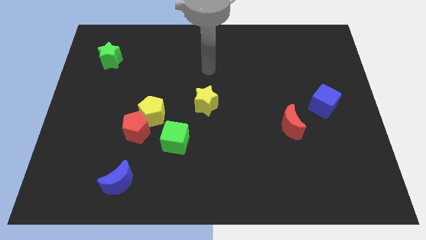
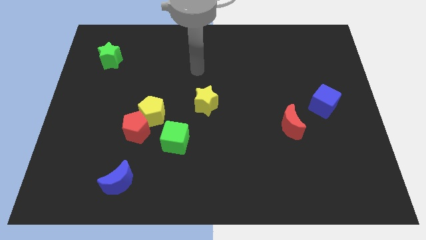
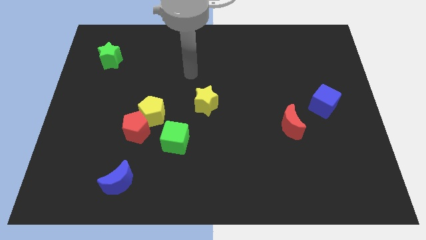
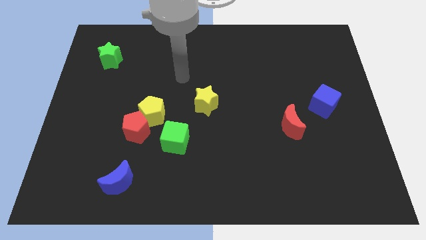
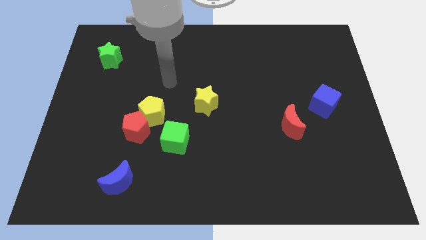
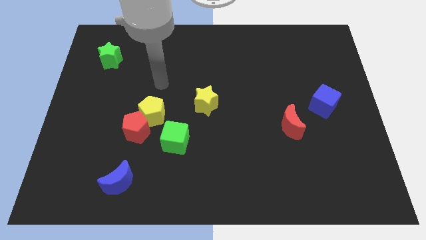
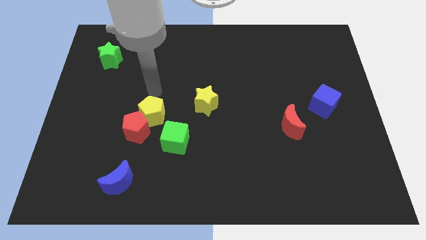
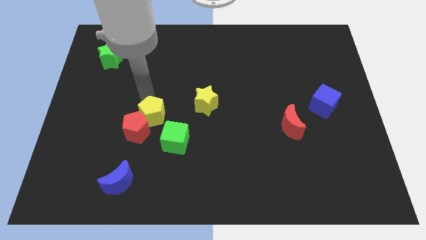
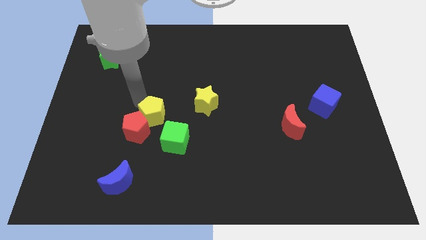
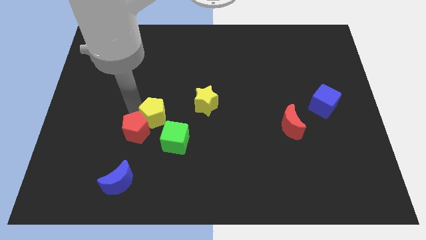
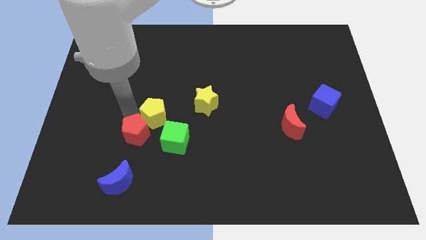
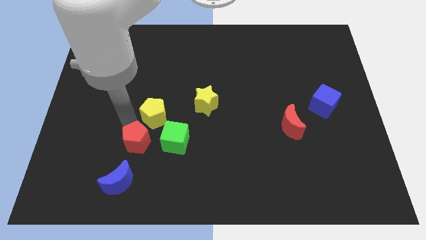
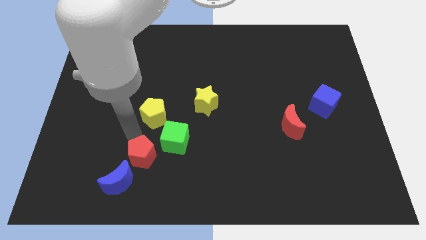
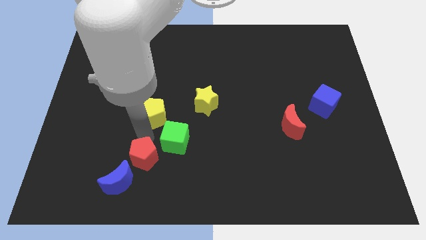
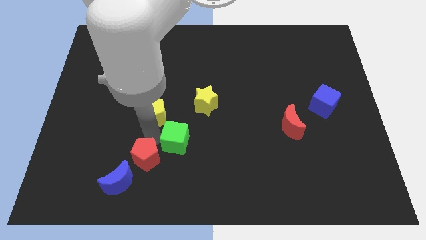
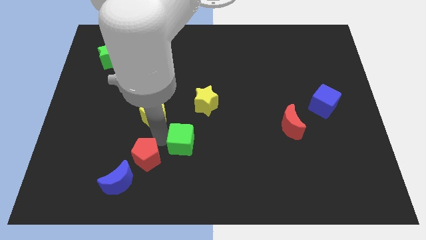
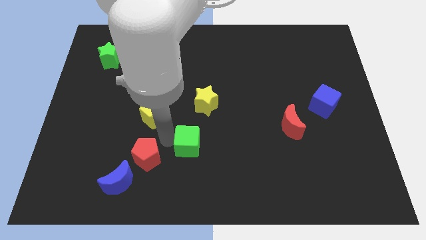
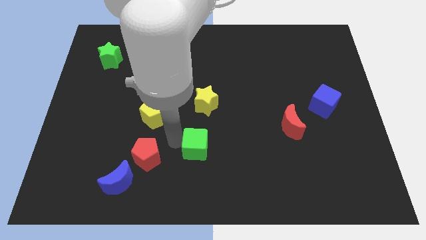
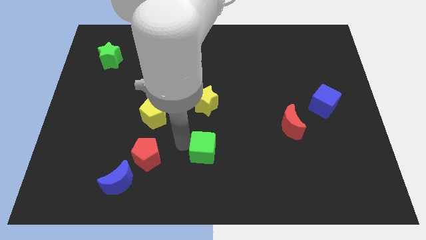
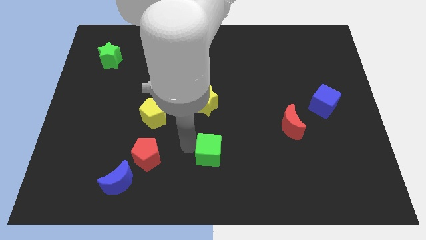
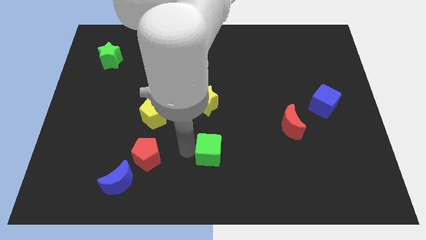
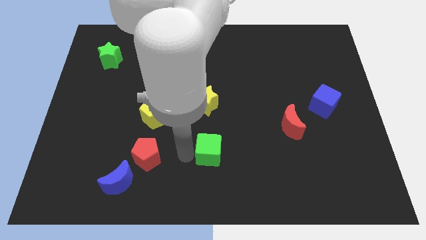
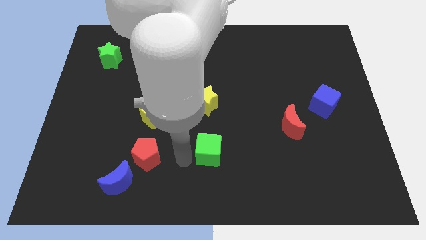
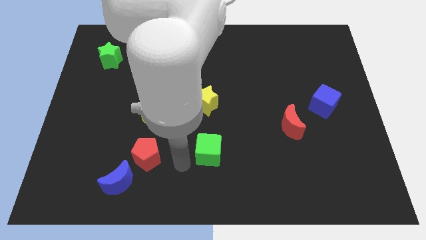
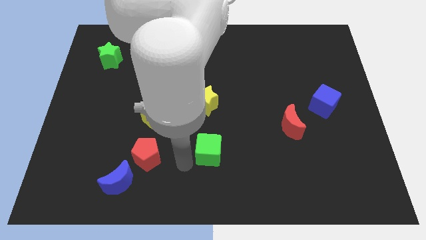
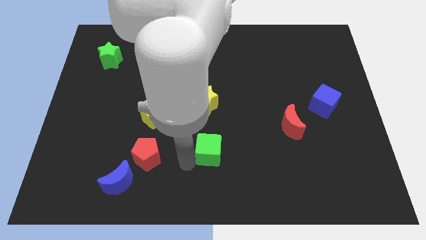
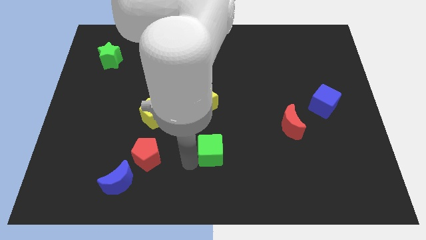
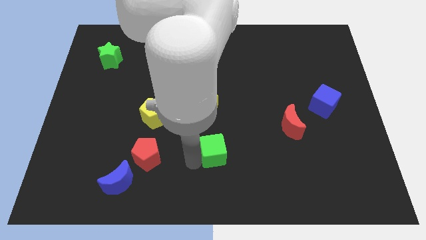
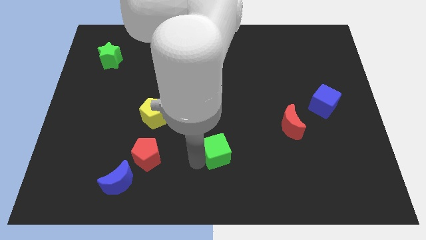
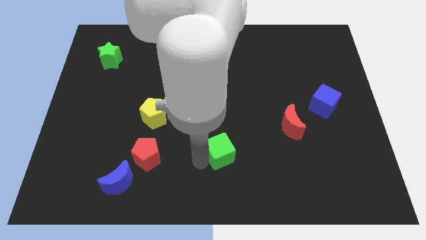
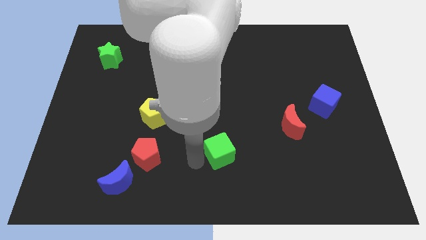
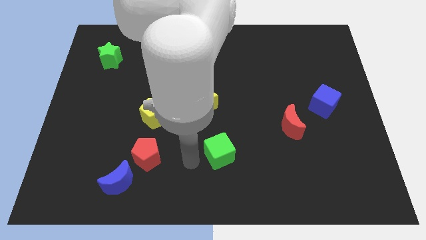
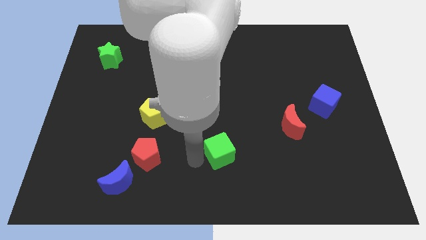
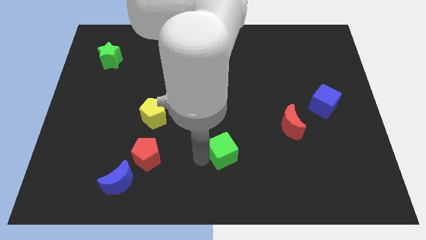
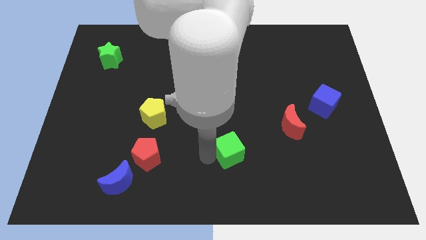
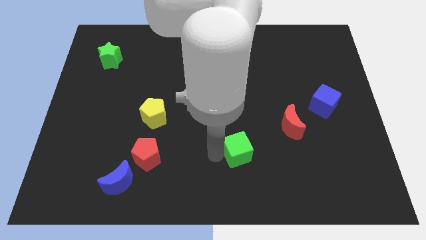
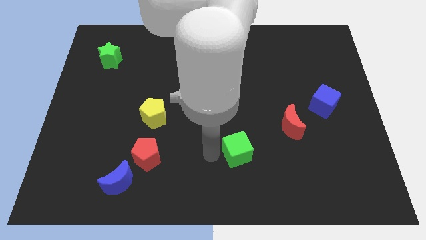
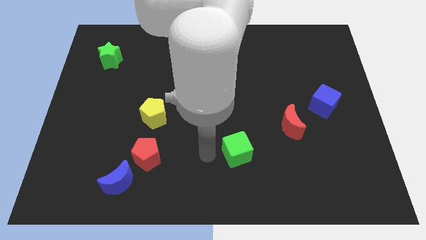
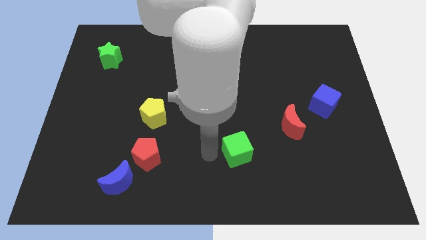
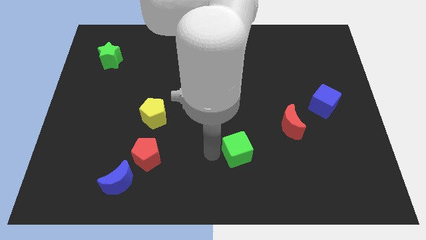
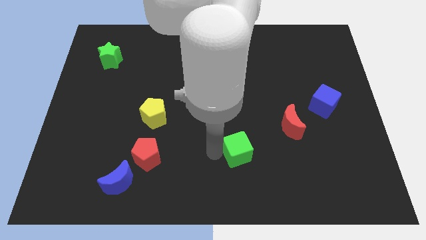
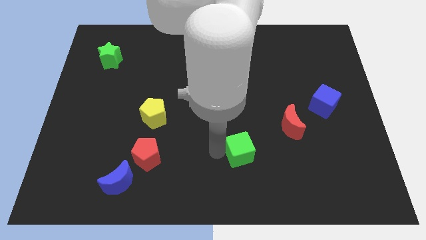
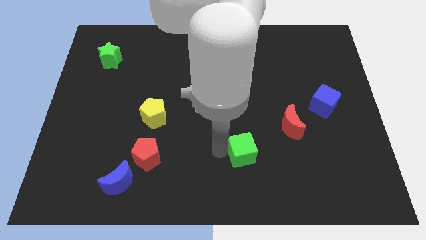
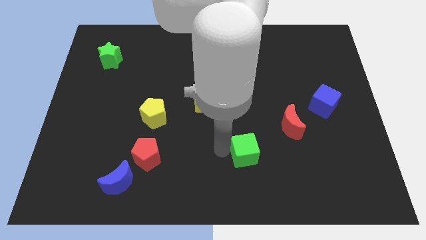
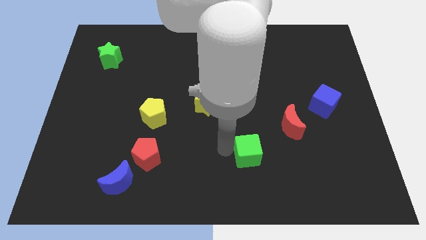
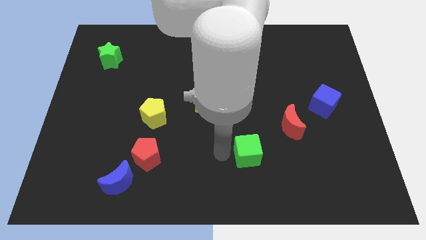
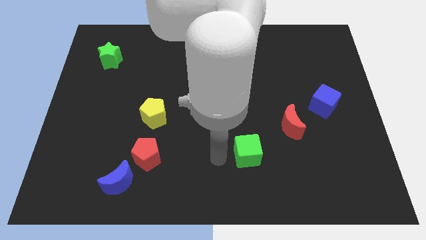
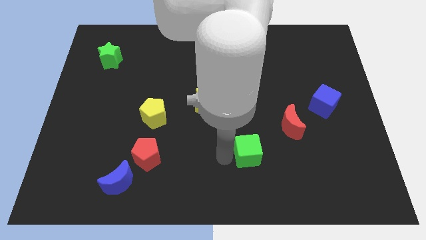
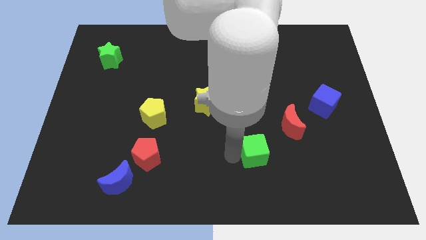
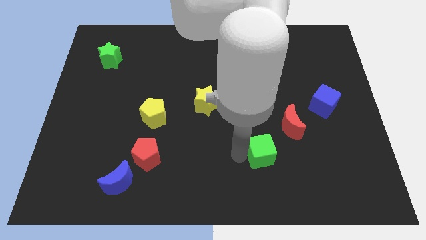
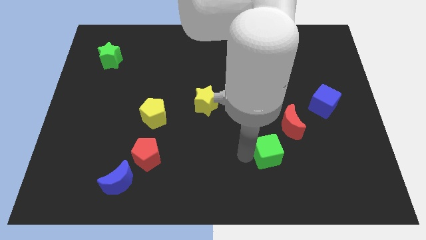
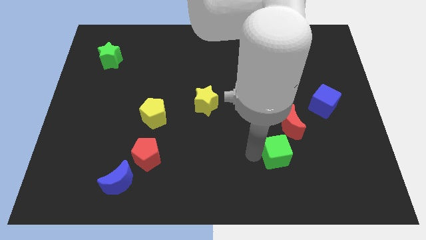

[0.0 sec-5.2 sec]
move the green cube right

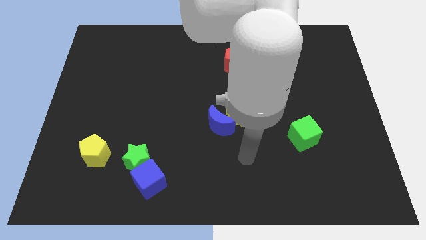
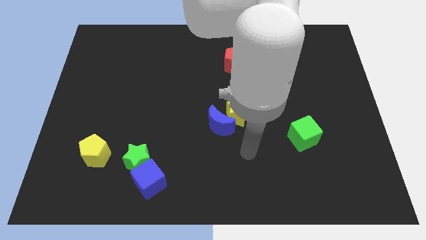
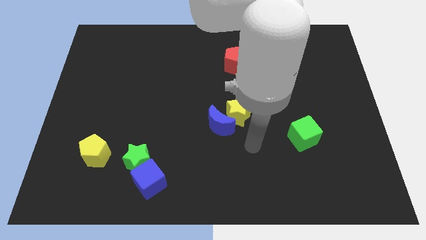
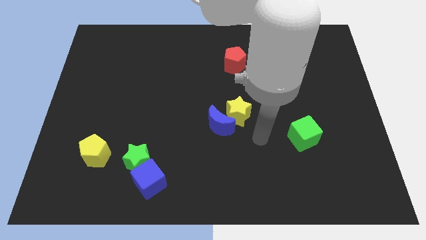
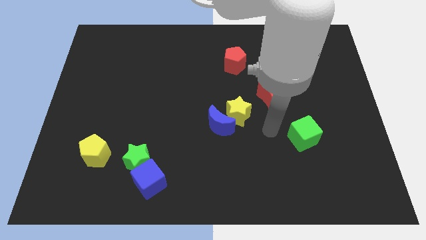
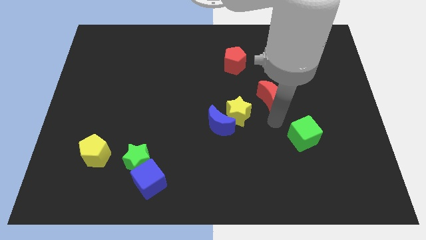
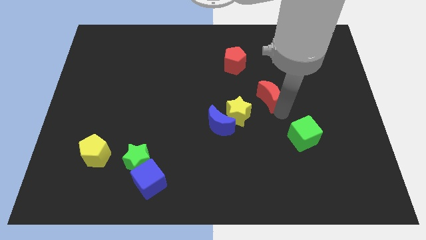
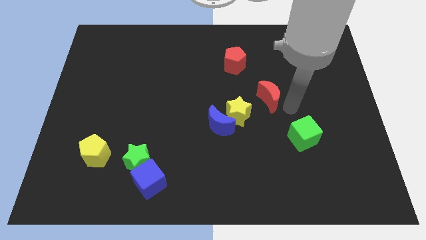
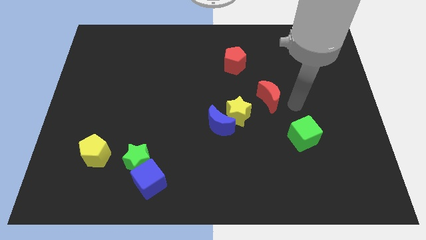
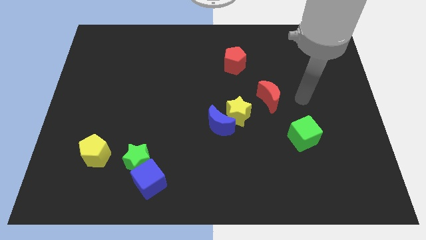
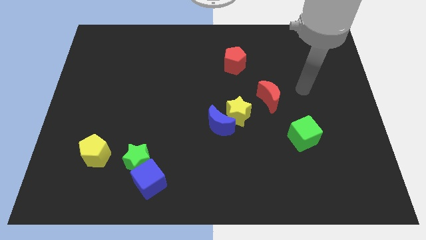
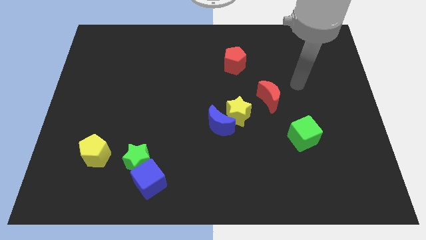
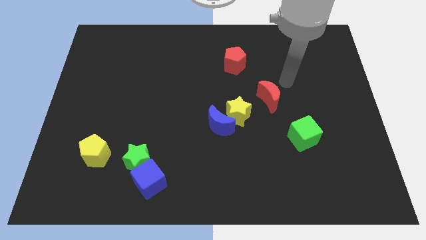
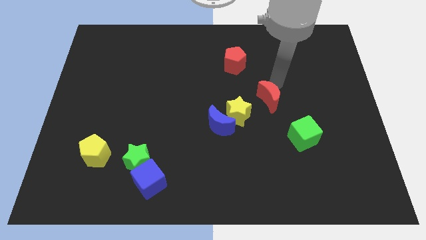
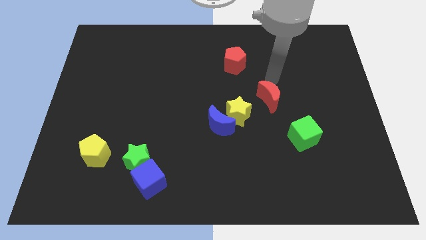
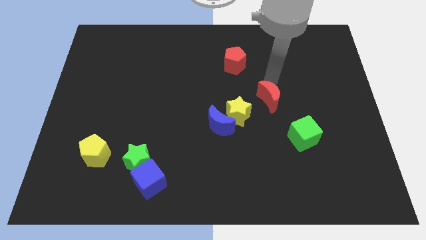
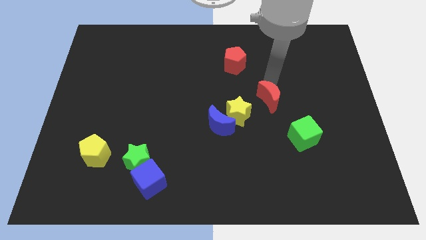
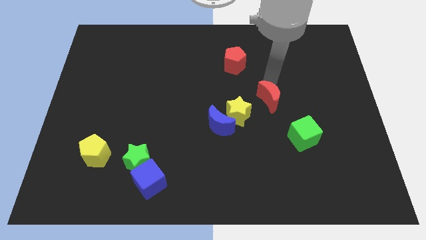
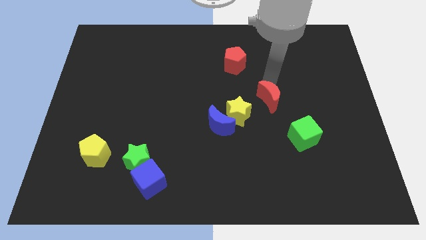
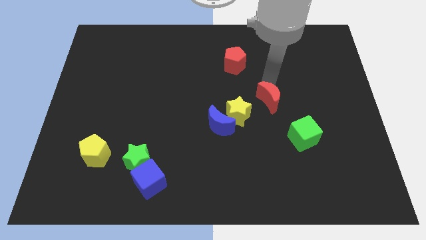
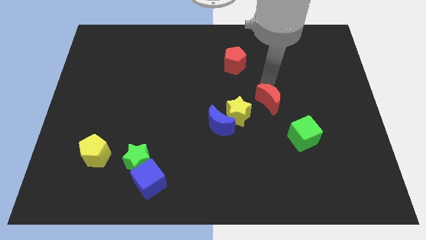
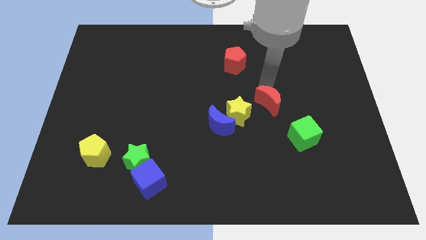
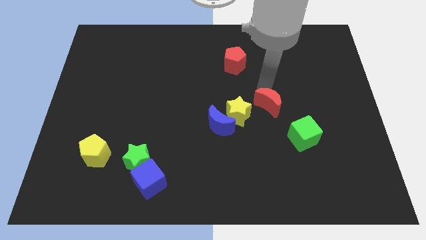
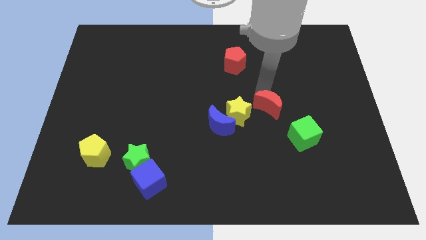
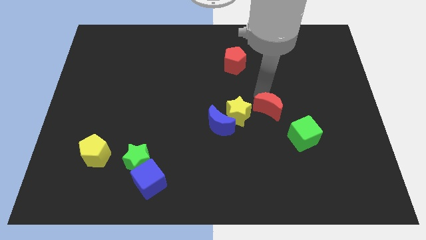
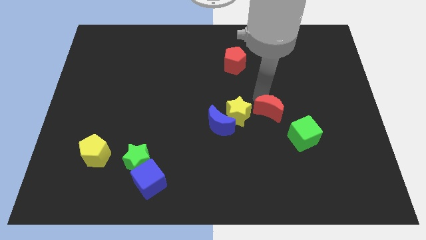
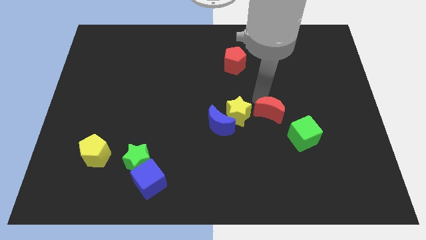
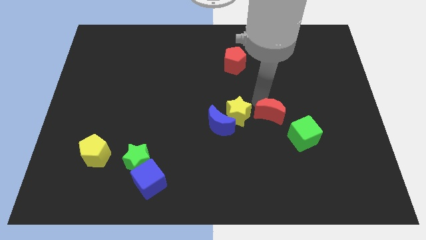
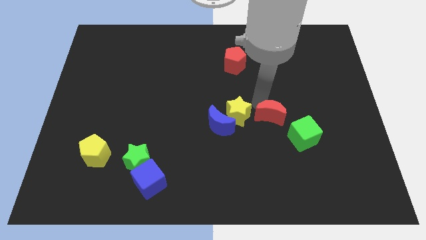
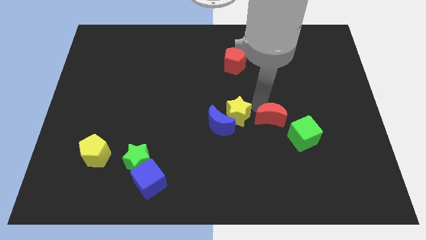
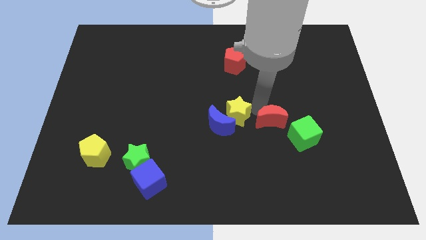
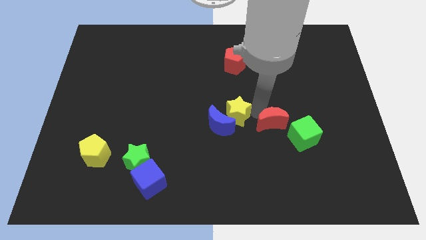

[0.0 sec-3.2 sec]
slide the red moon downwards somewhat

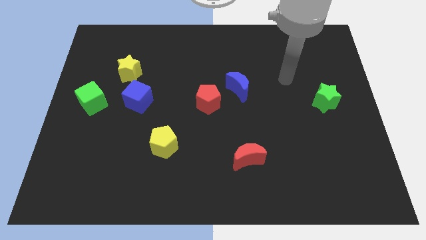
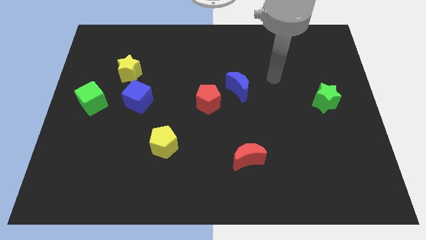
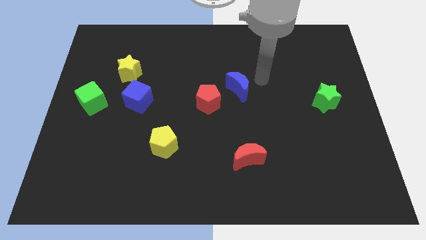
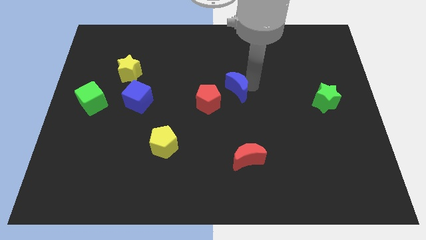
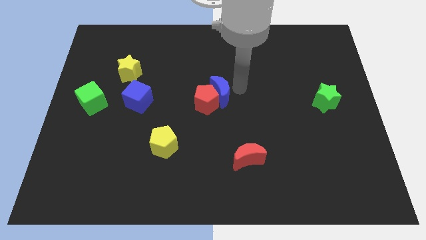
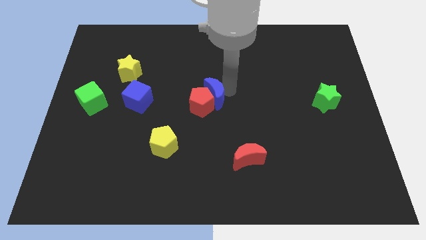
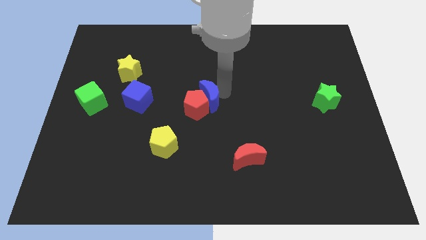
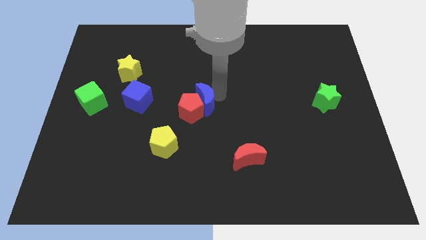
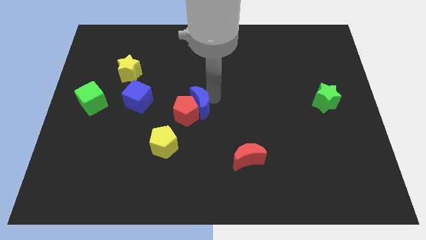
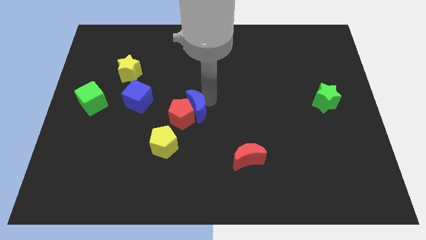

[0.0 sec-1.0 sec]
slide the red pentagon down and to the left a little
